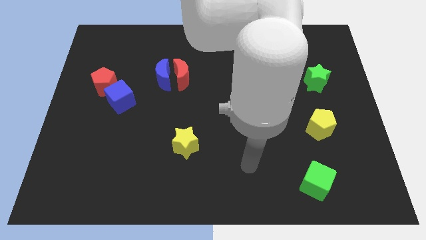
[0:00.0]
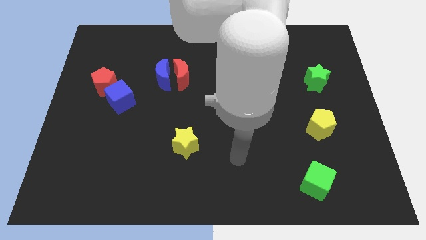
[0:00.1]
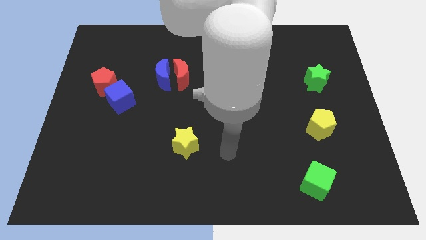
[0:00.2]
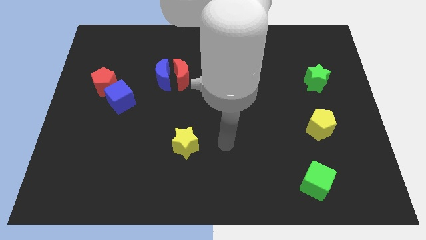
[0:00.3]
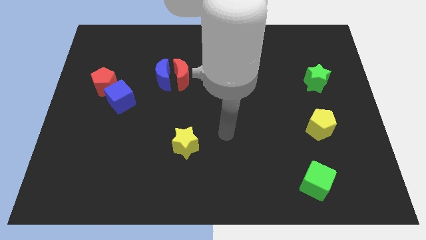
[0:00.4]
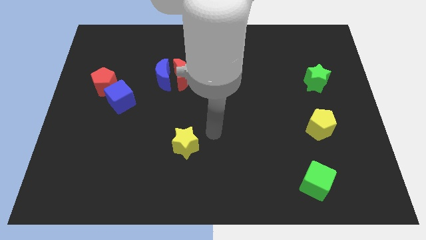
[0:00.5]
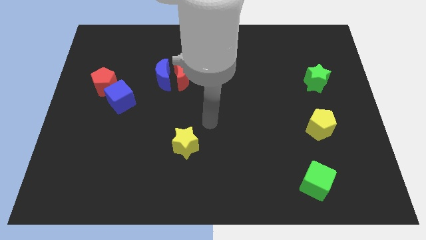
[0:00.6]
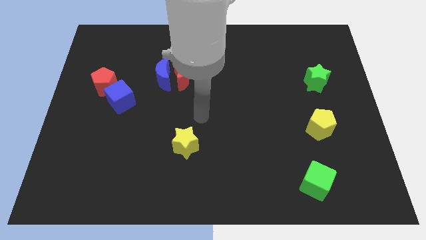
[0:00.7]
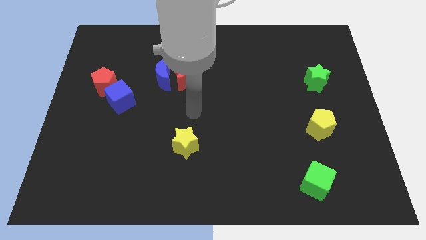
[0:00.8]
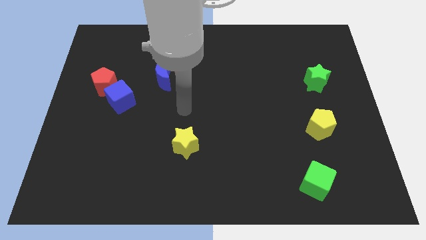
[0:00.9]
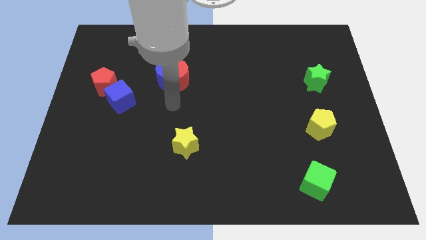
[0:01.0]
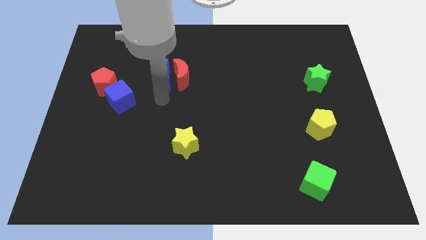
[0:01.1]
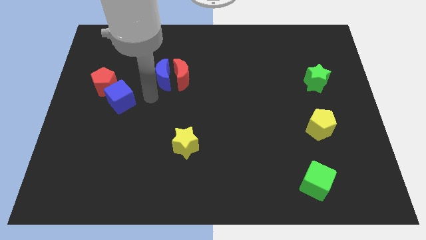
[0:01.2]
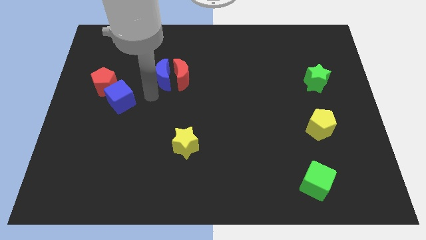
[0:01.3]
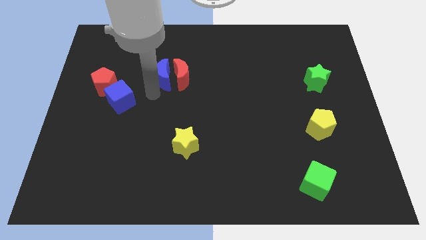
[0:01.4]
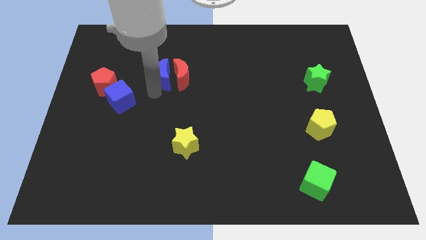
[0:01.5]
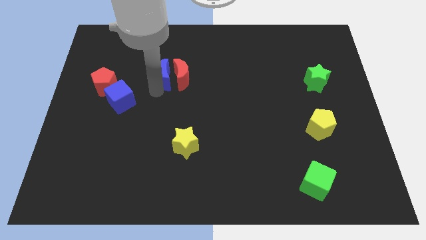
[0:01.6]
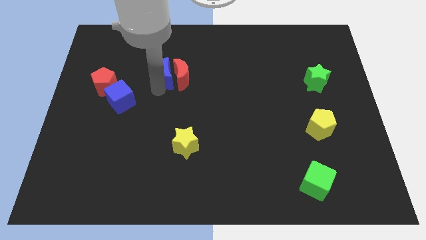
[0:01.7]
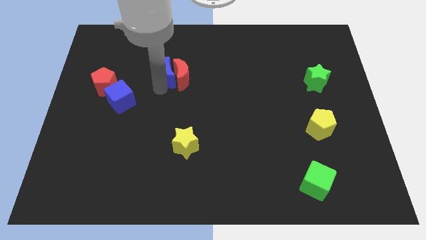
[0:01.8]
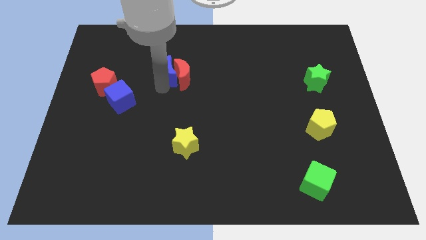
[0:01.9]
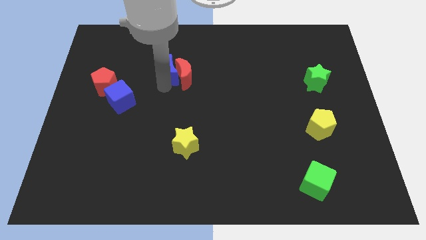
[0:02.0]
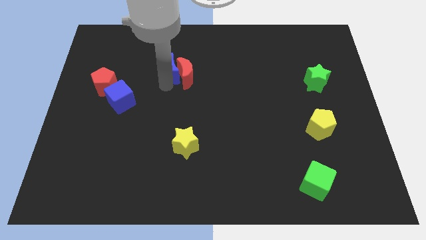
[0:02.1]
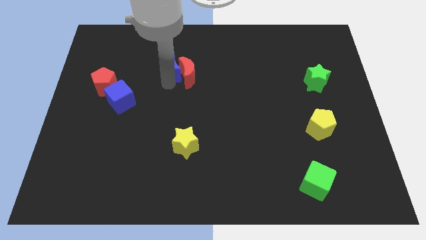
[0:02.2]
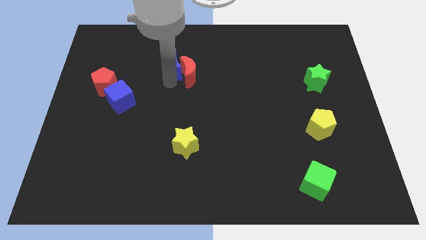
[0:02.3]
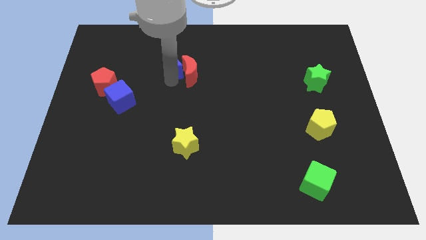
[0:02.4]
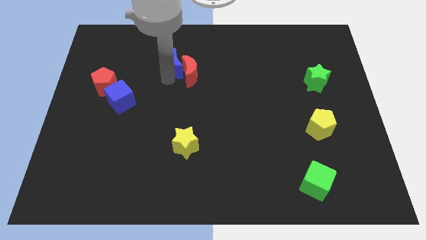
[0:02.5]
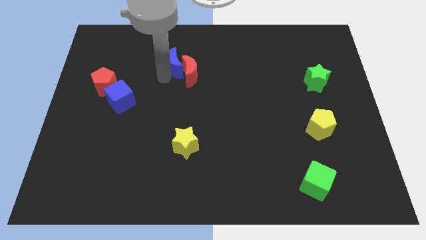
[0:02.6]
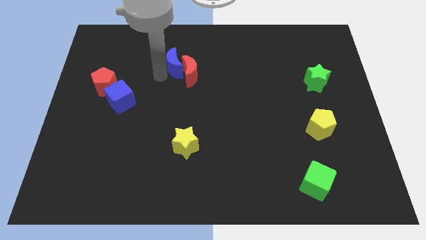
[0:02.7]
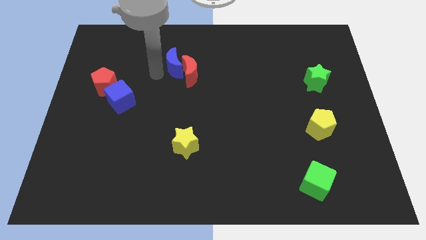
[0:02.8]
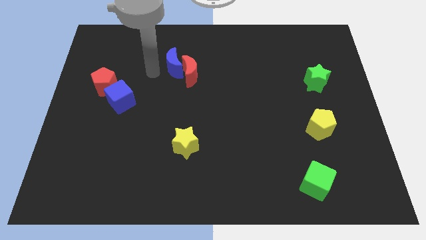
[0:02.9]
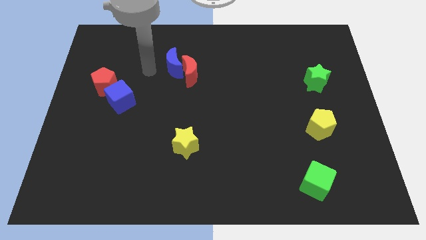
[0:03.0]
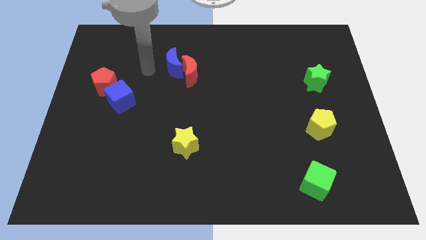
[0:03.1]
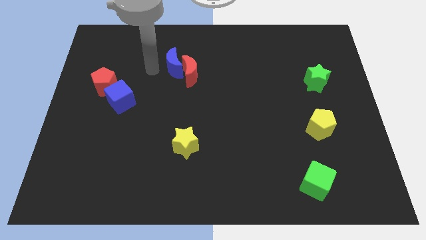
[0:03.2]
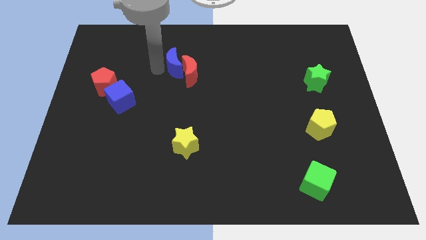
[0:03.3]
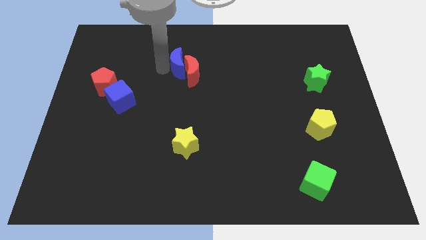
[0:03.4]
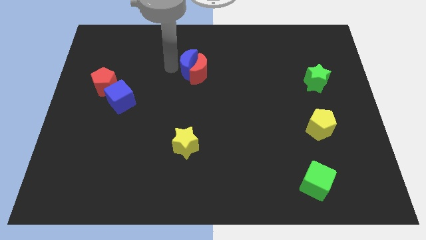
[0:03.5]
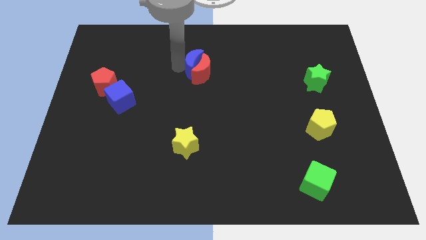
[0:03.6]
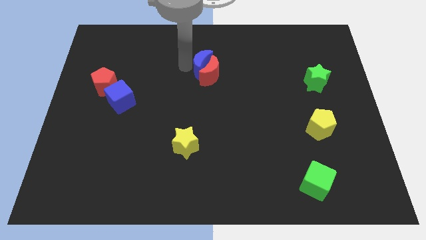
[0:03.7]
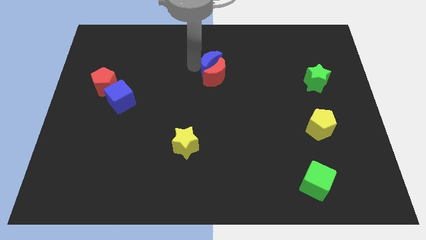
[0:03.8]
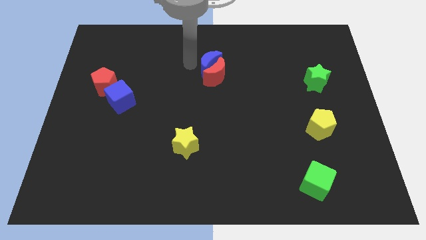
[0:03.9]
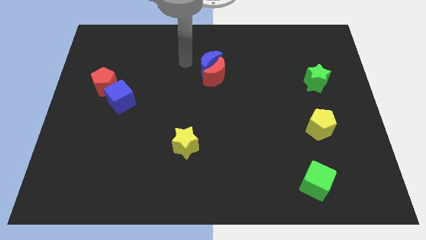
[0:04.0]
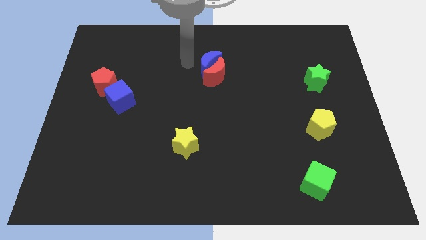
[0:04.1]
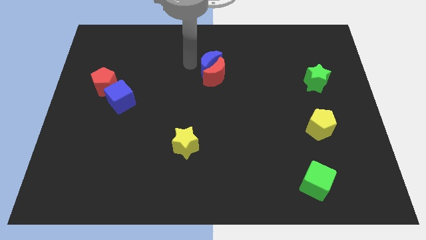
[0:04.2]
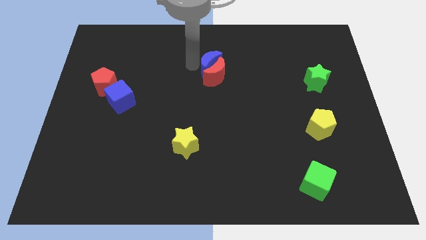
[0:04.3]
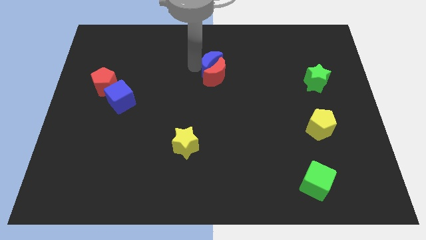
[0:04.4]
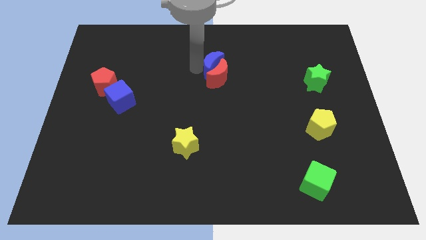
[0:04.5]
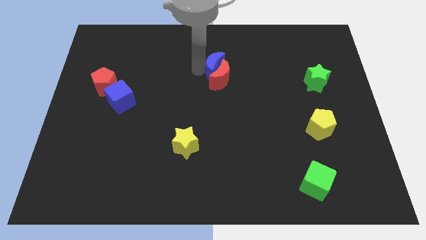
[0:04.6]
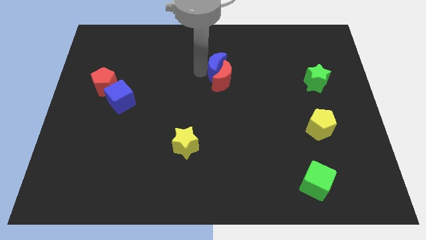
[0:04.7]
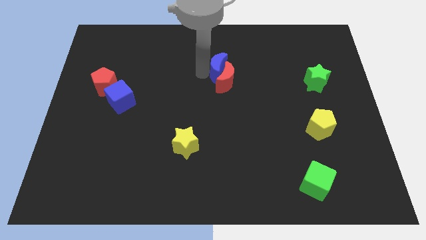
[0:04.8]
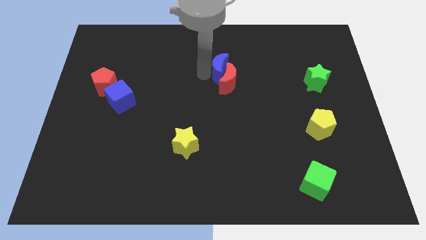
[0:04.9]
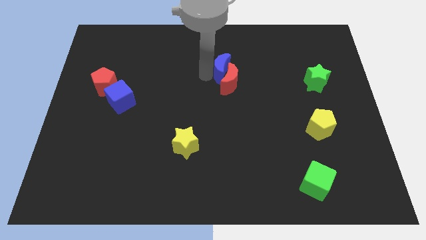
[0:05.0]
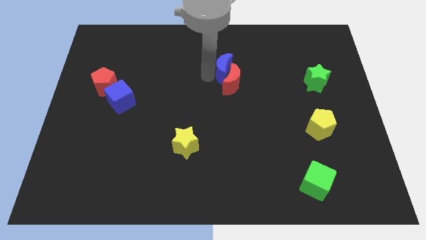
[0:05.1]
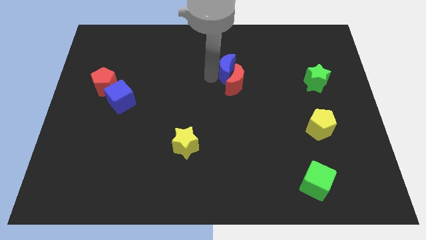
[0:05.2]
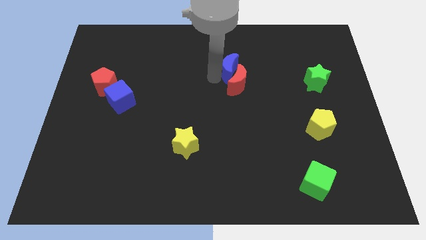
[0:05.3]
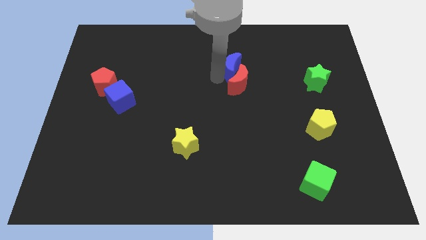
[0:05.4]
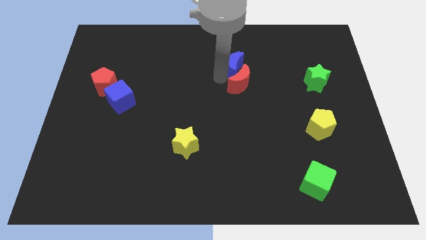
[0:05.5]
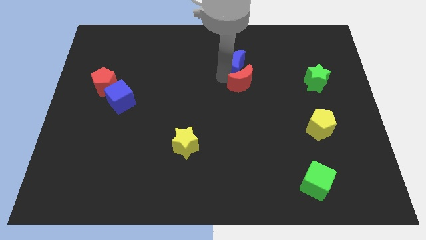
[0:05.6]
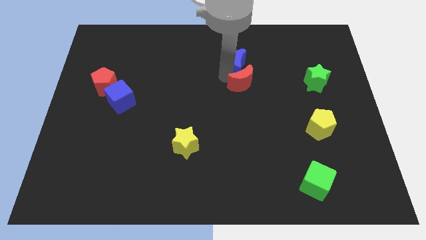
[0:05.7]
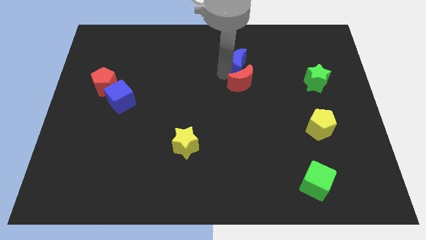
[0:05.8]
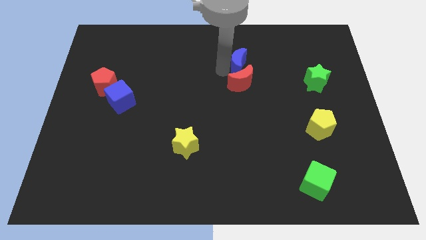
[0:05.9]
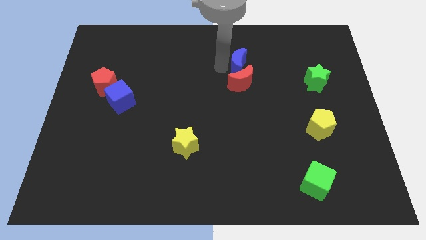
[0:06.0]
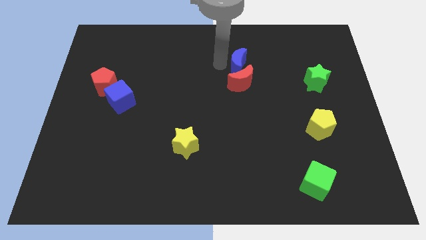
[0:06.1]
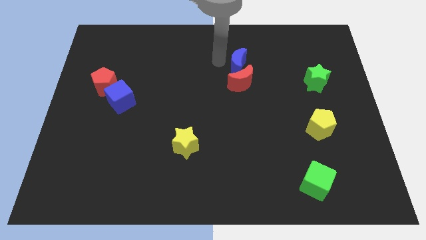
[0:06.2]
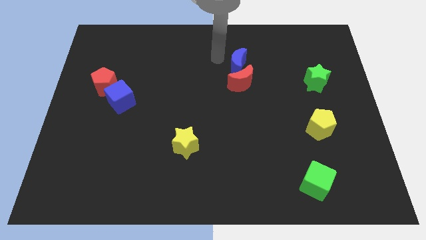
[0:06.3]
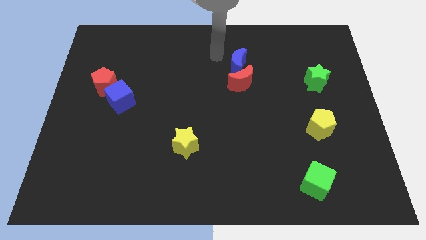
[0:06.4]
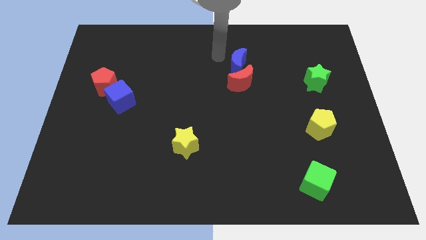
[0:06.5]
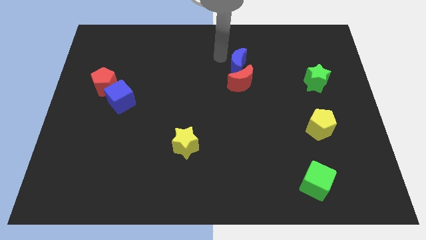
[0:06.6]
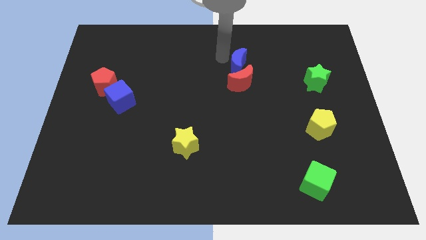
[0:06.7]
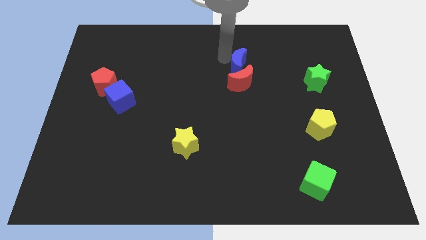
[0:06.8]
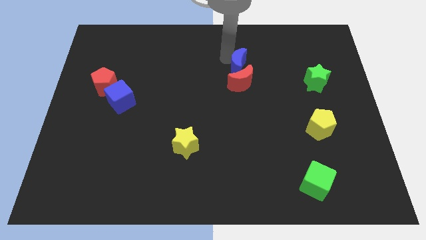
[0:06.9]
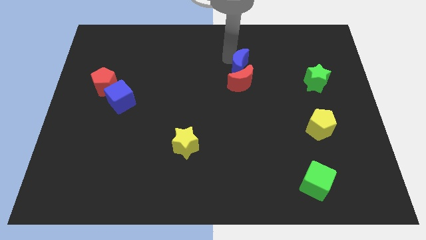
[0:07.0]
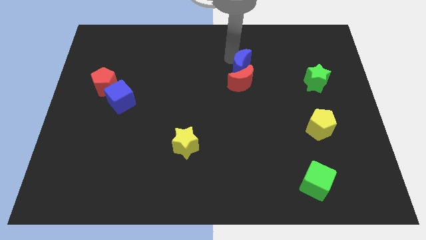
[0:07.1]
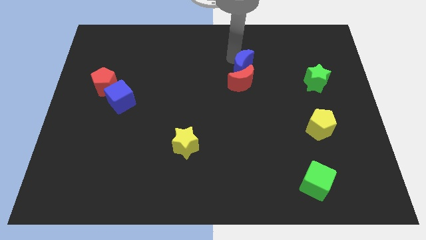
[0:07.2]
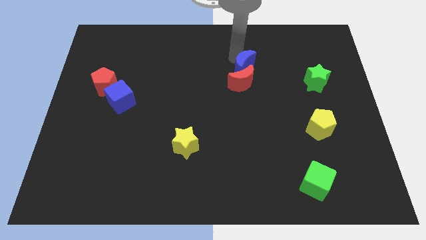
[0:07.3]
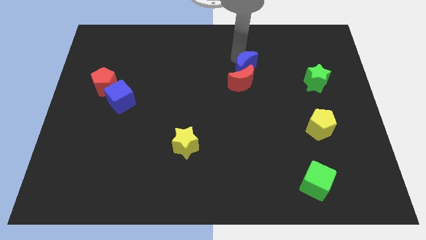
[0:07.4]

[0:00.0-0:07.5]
move the blue moon to the right

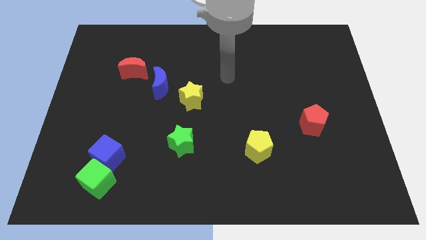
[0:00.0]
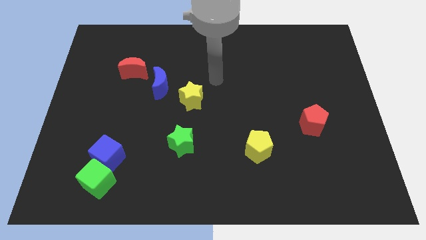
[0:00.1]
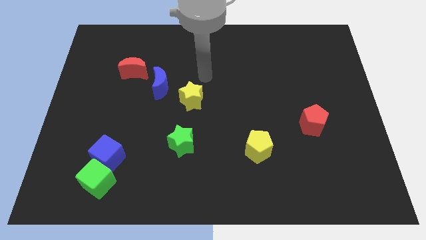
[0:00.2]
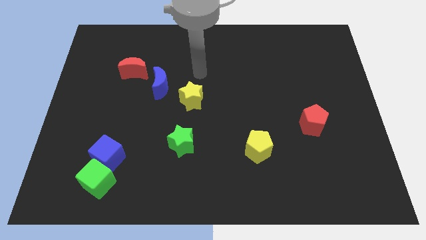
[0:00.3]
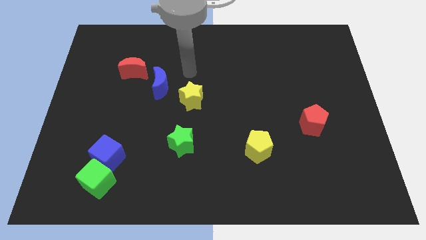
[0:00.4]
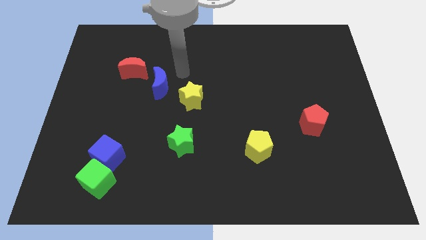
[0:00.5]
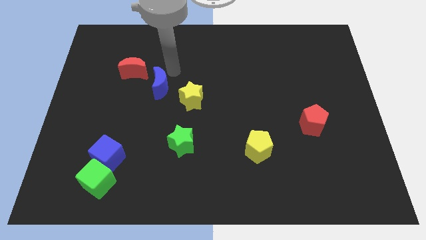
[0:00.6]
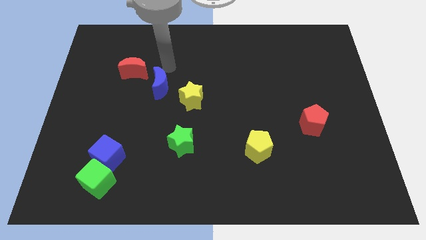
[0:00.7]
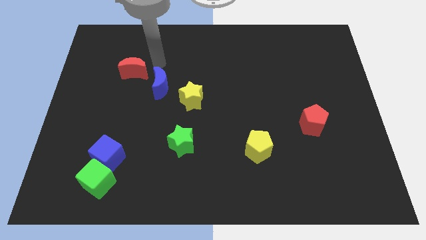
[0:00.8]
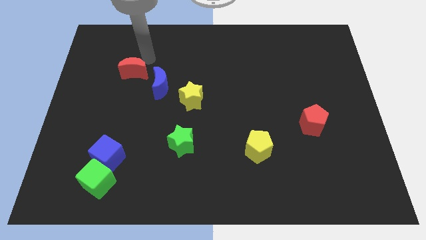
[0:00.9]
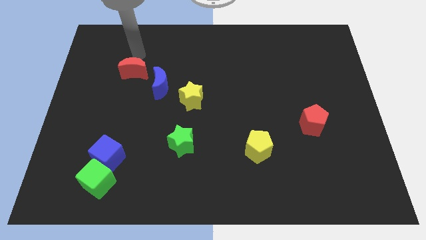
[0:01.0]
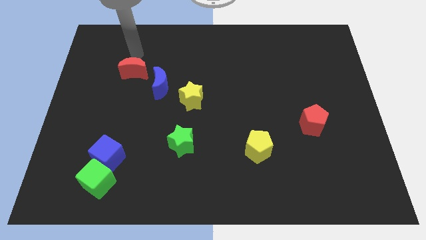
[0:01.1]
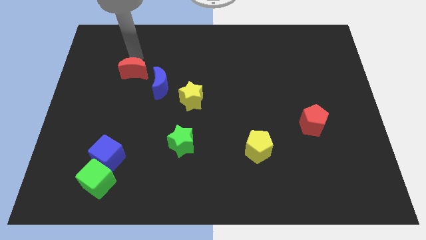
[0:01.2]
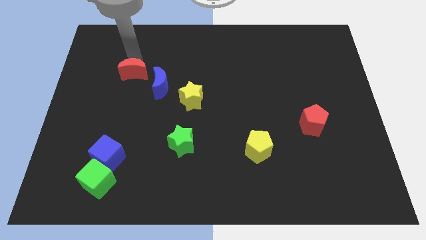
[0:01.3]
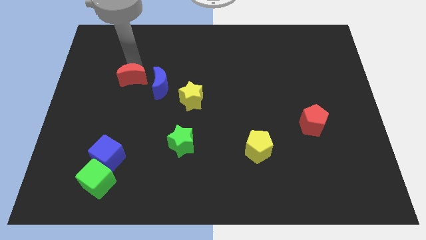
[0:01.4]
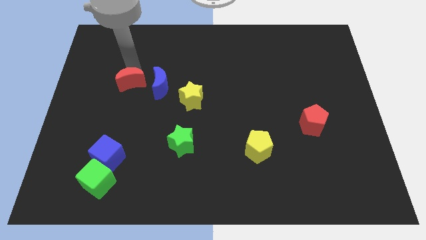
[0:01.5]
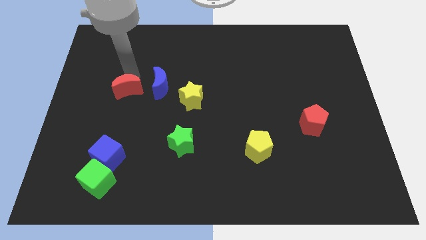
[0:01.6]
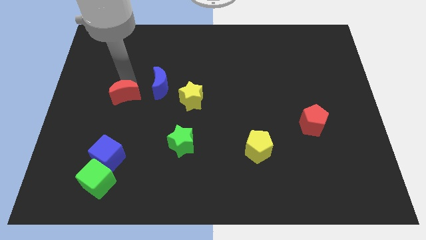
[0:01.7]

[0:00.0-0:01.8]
push the red moon slightly down
